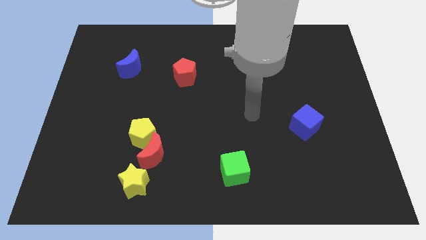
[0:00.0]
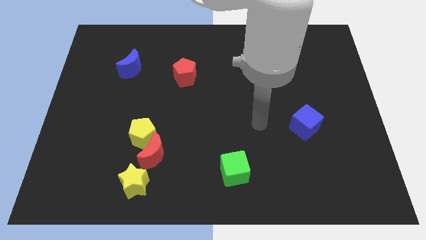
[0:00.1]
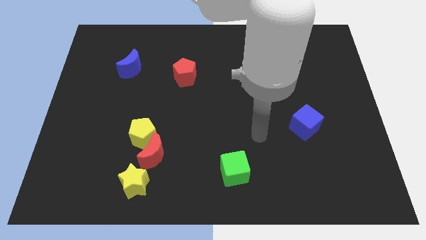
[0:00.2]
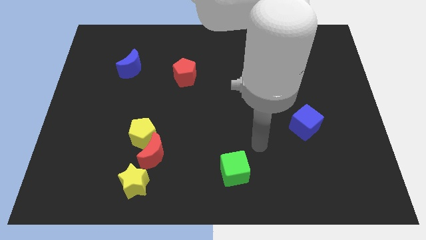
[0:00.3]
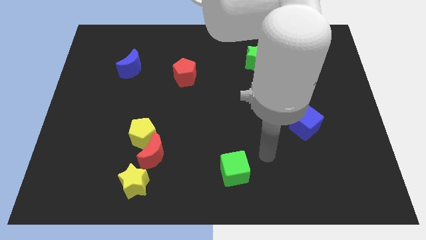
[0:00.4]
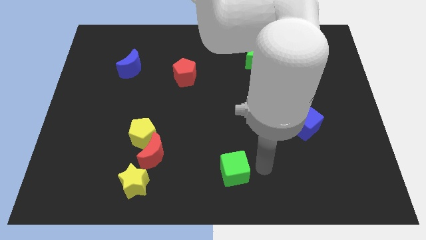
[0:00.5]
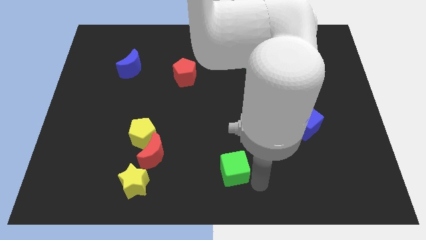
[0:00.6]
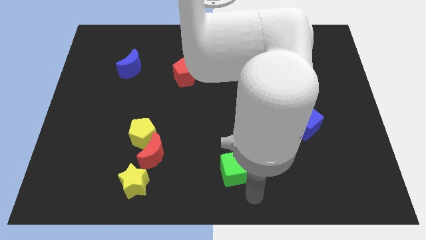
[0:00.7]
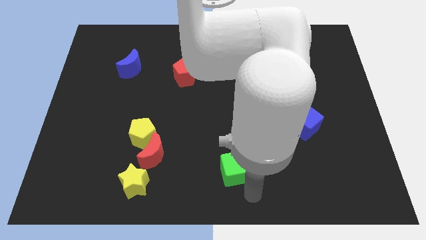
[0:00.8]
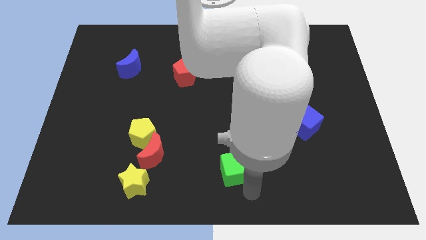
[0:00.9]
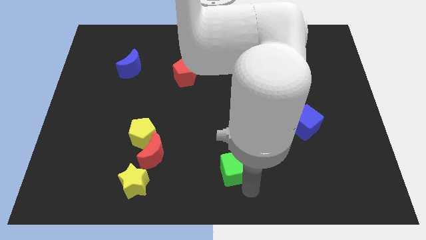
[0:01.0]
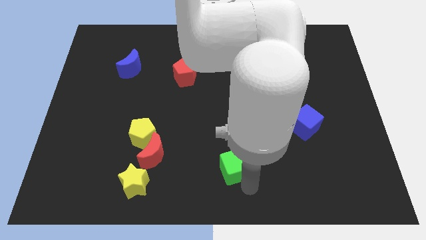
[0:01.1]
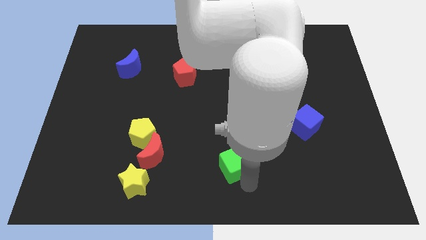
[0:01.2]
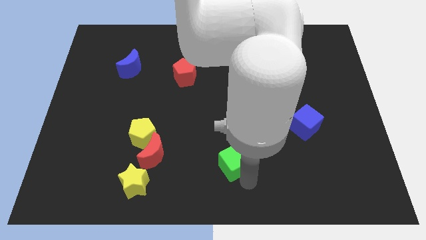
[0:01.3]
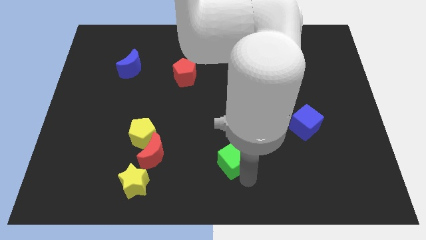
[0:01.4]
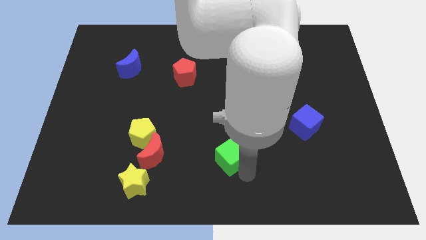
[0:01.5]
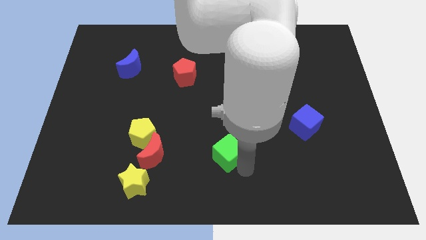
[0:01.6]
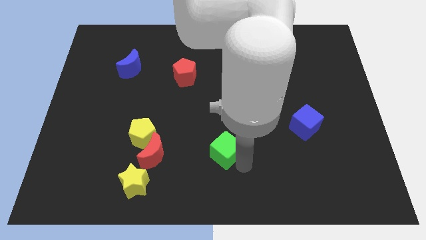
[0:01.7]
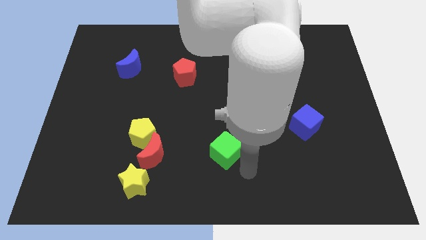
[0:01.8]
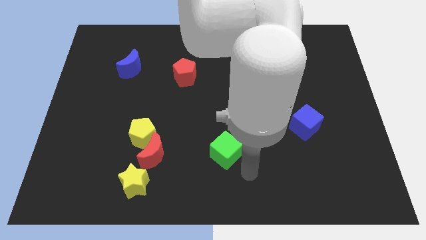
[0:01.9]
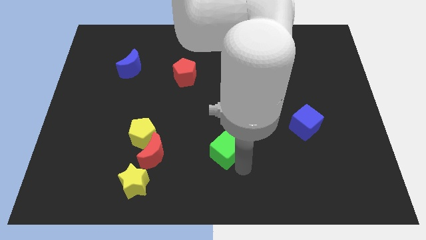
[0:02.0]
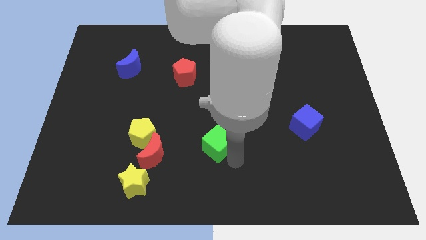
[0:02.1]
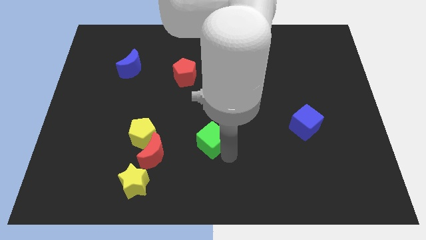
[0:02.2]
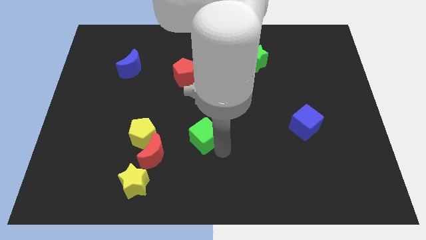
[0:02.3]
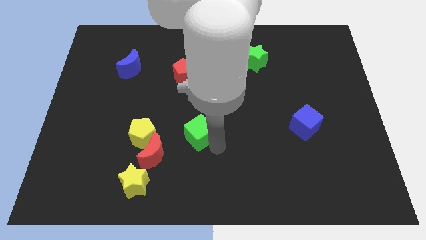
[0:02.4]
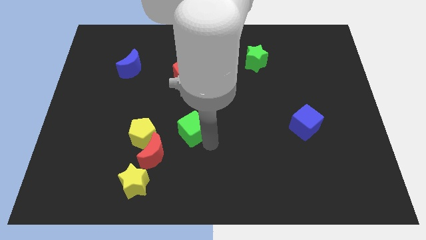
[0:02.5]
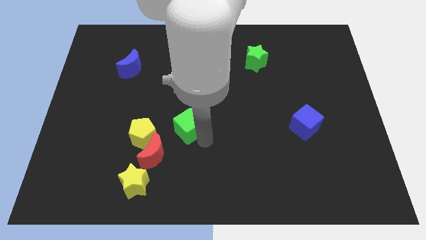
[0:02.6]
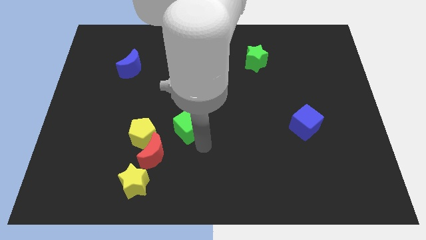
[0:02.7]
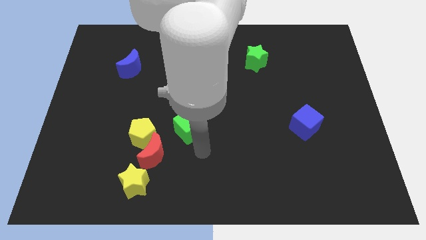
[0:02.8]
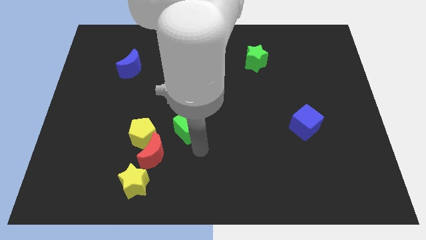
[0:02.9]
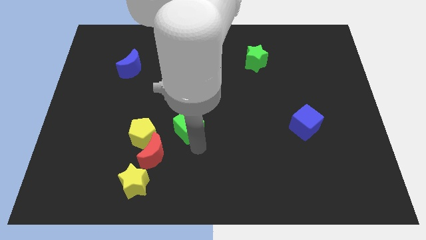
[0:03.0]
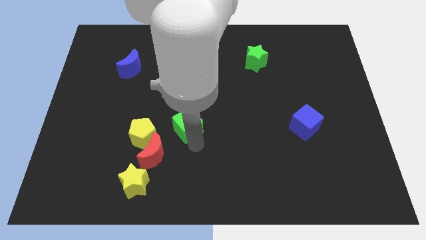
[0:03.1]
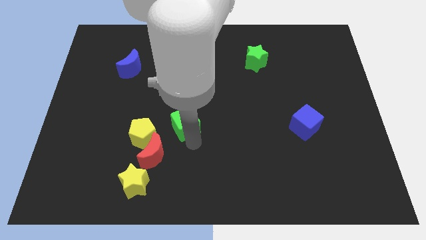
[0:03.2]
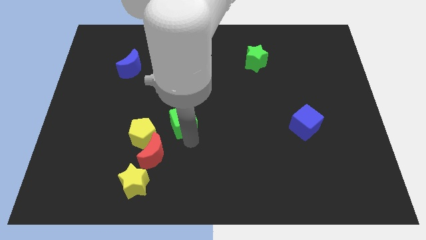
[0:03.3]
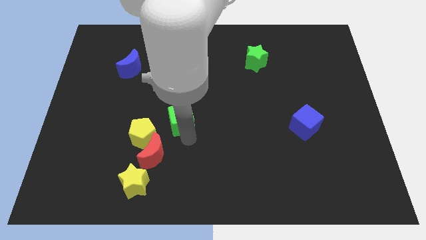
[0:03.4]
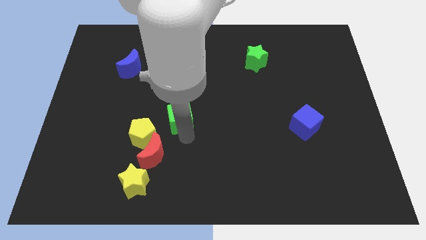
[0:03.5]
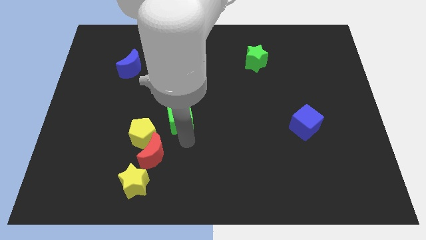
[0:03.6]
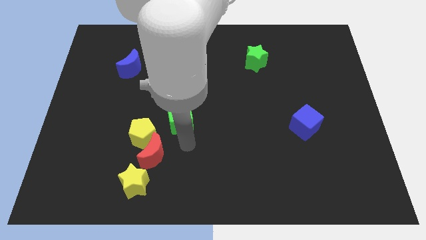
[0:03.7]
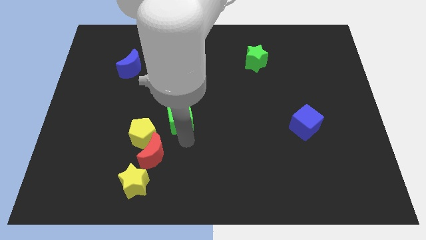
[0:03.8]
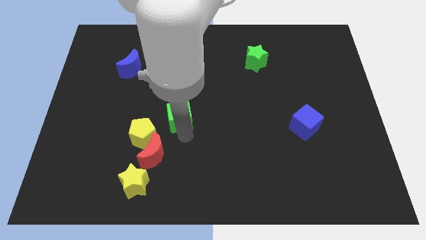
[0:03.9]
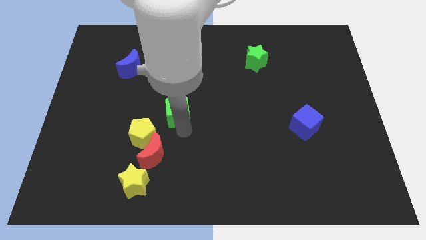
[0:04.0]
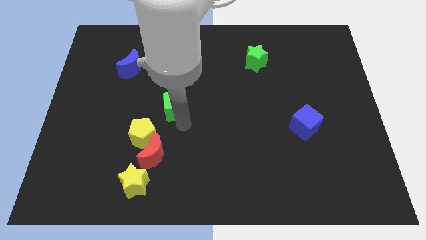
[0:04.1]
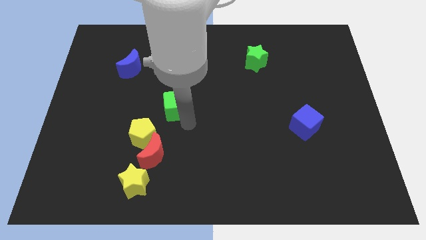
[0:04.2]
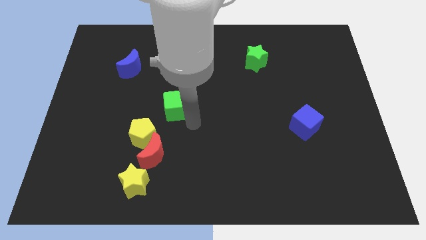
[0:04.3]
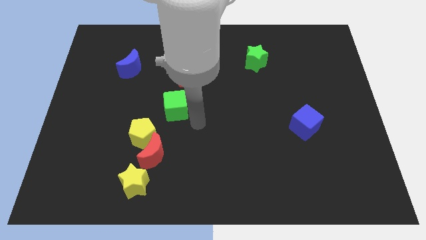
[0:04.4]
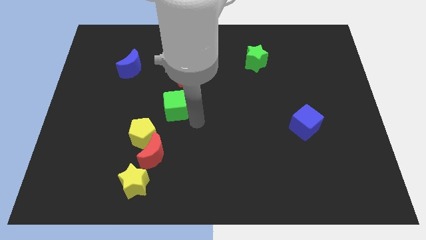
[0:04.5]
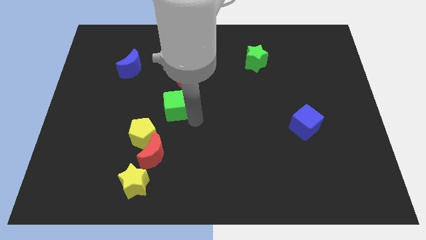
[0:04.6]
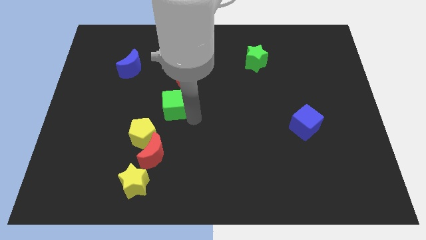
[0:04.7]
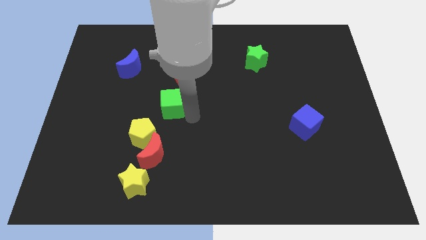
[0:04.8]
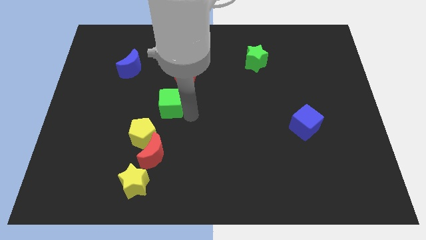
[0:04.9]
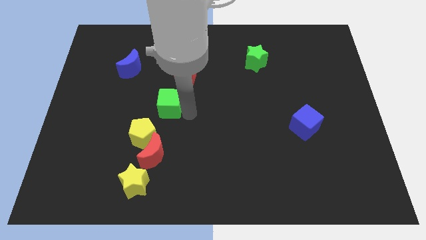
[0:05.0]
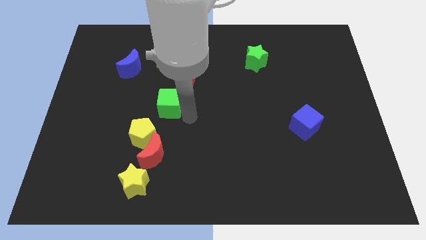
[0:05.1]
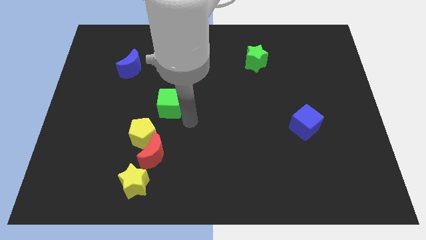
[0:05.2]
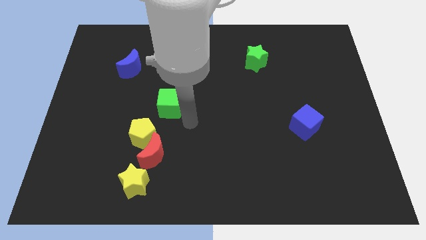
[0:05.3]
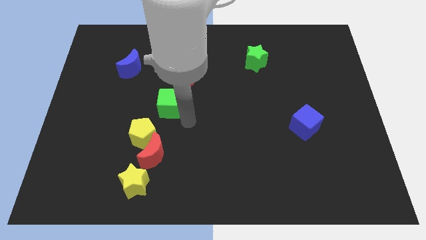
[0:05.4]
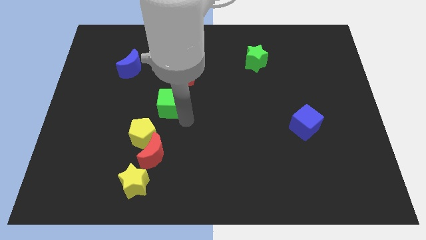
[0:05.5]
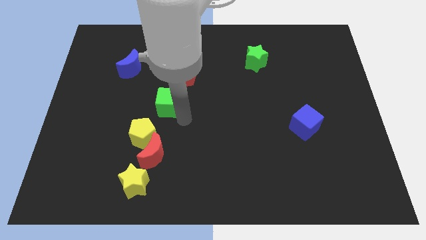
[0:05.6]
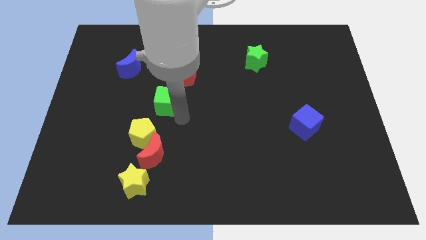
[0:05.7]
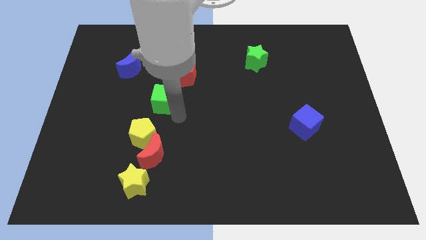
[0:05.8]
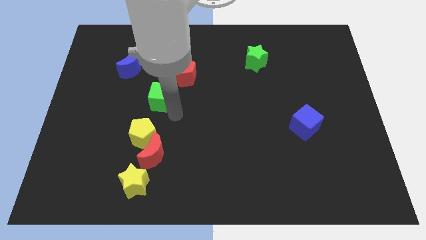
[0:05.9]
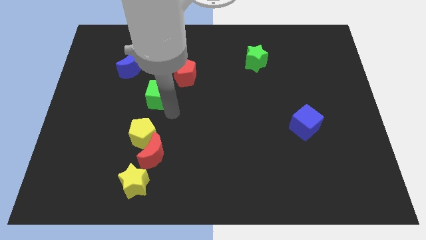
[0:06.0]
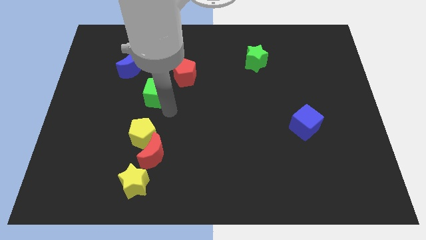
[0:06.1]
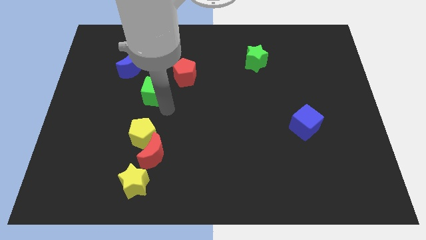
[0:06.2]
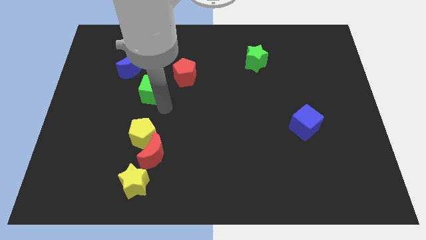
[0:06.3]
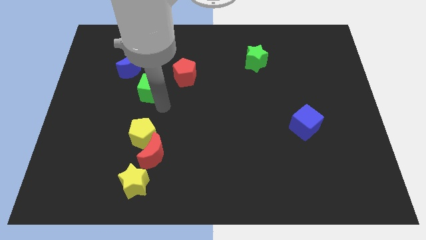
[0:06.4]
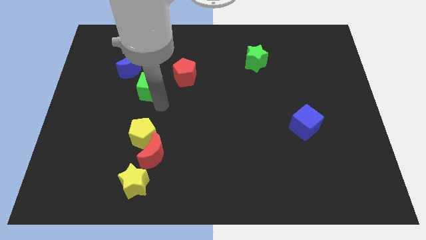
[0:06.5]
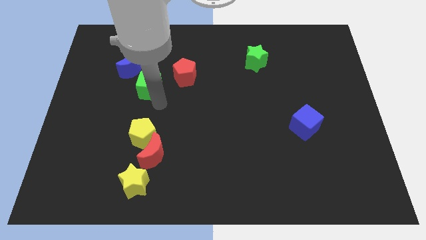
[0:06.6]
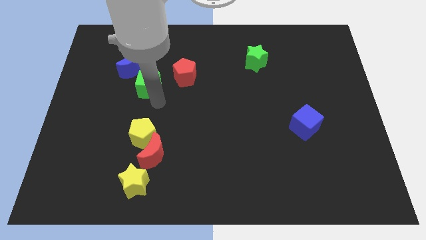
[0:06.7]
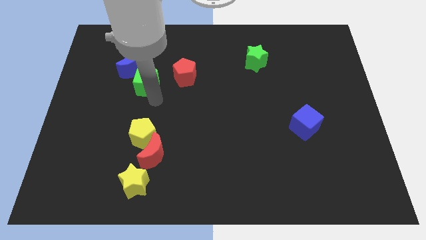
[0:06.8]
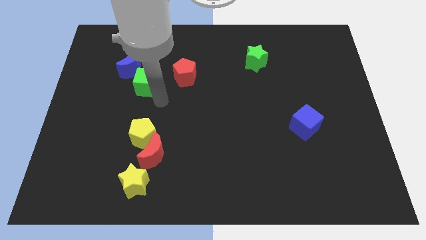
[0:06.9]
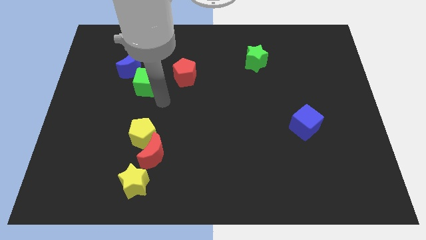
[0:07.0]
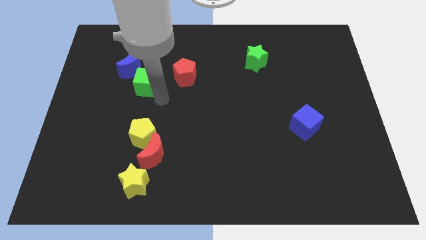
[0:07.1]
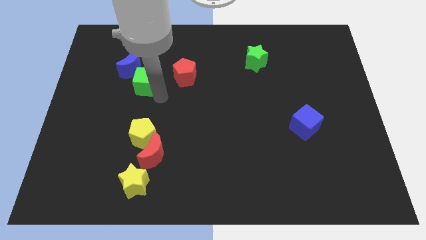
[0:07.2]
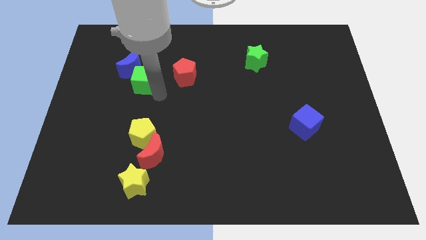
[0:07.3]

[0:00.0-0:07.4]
slide the green cube towards the blue moon
